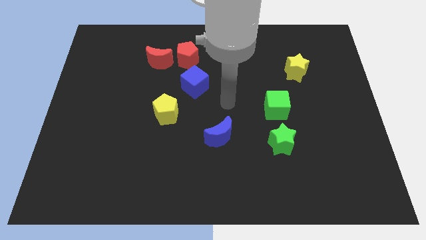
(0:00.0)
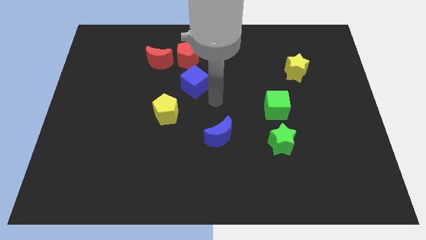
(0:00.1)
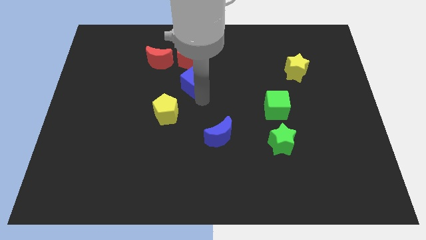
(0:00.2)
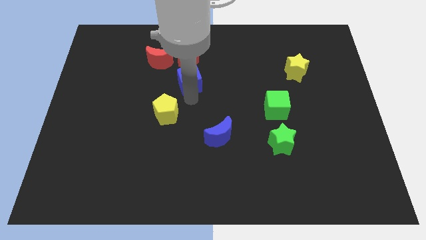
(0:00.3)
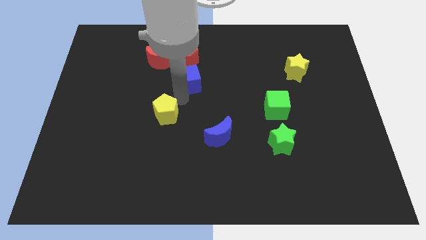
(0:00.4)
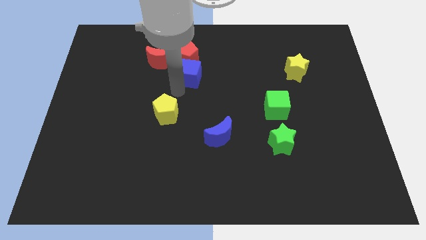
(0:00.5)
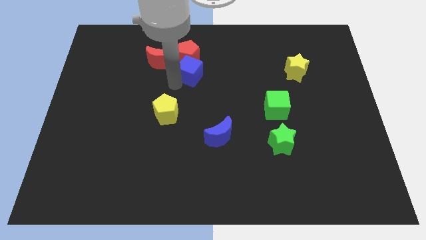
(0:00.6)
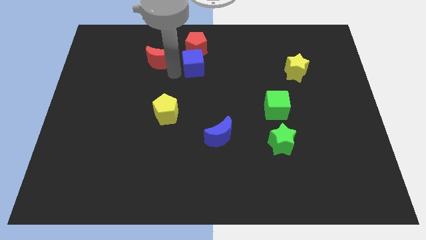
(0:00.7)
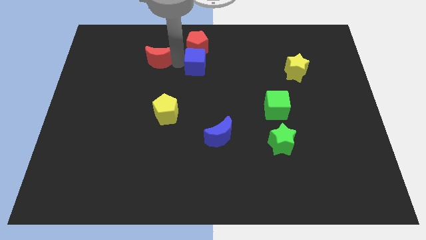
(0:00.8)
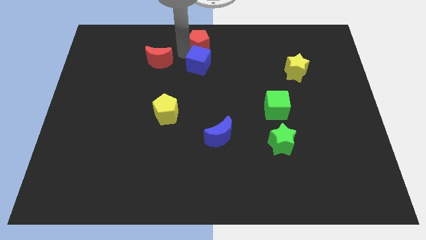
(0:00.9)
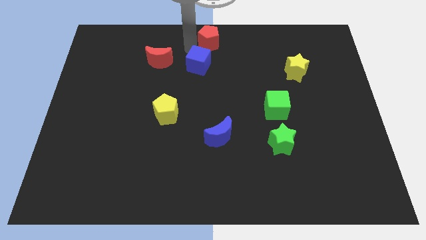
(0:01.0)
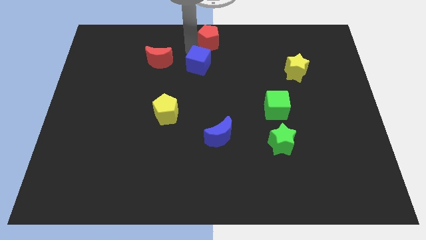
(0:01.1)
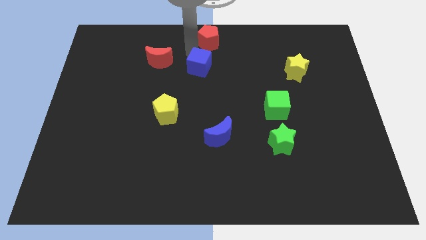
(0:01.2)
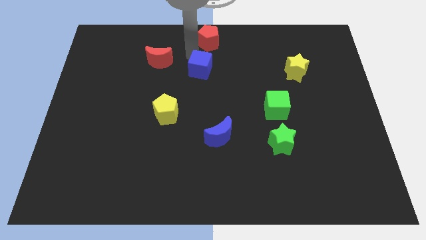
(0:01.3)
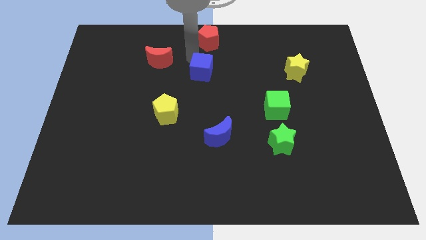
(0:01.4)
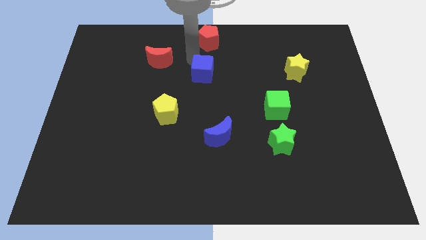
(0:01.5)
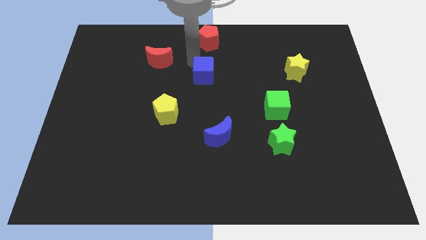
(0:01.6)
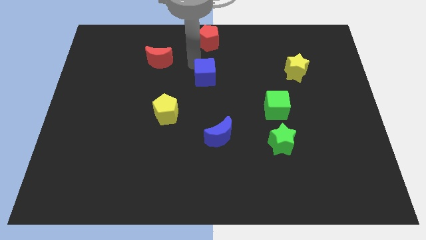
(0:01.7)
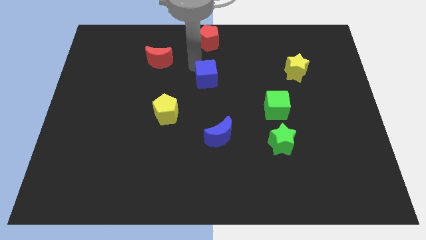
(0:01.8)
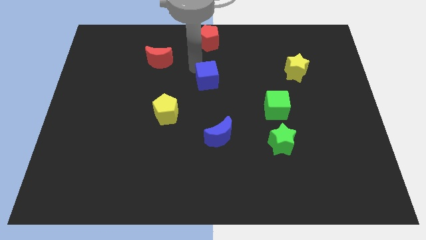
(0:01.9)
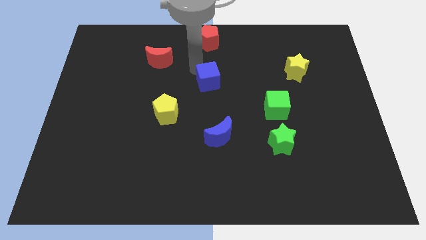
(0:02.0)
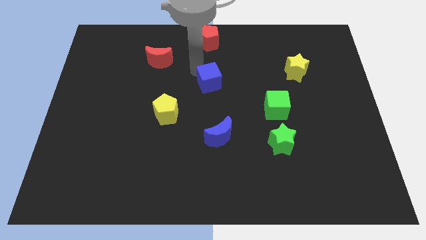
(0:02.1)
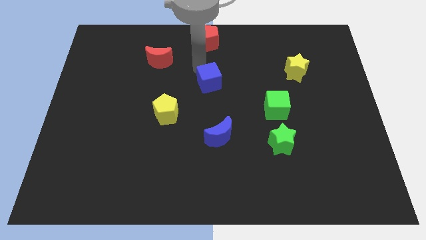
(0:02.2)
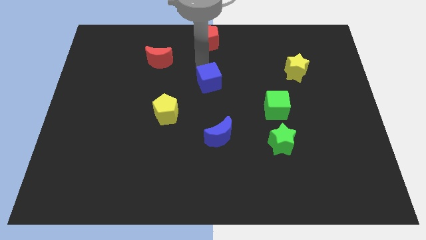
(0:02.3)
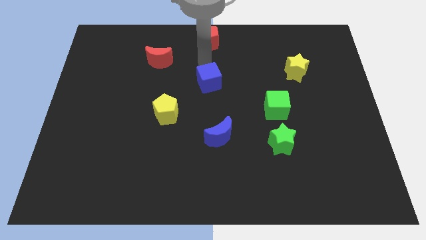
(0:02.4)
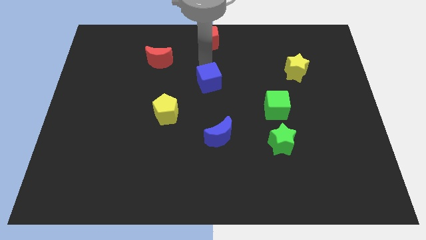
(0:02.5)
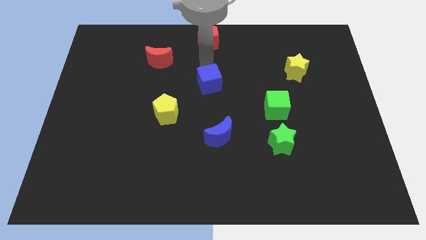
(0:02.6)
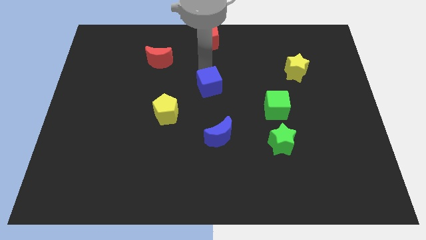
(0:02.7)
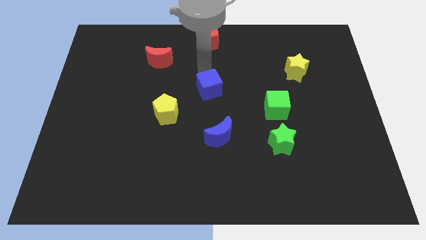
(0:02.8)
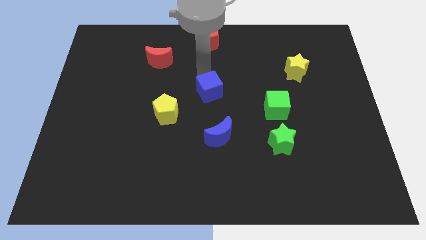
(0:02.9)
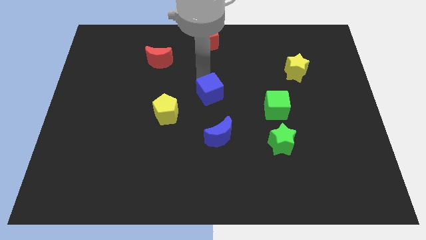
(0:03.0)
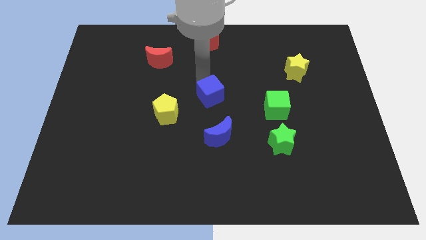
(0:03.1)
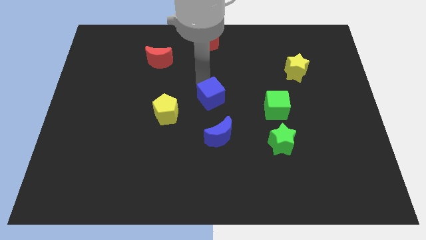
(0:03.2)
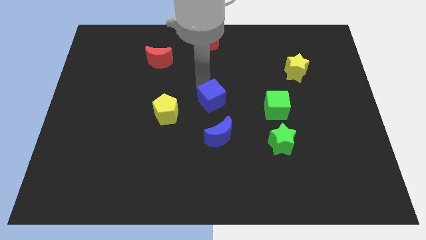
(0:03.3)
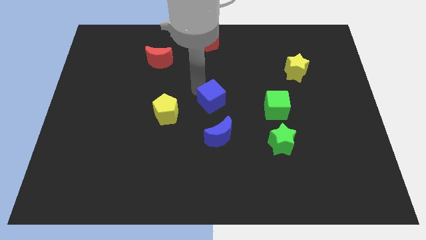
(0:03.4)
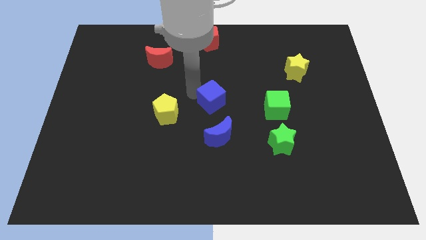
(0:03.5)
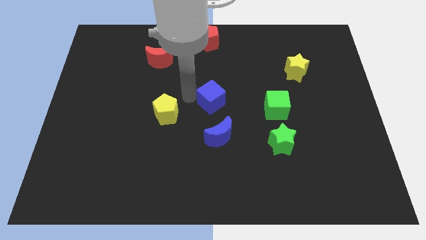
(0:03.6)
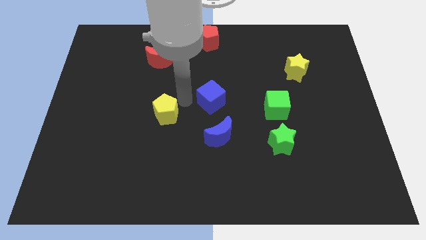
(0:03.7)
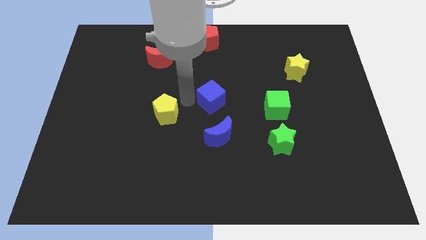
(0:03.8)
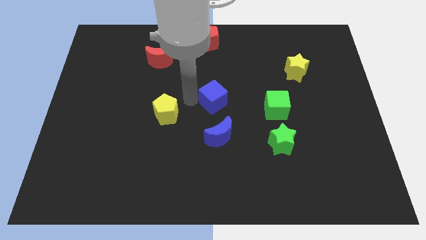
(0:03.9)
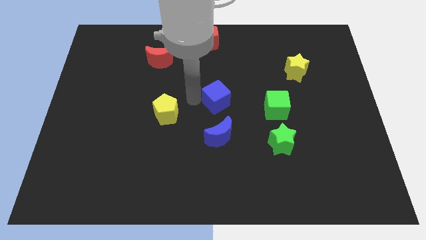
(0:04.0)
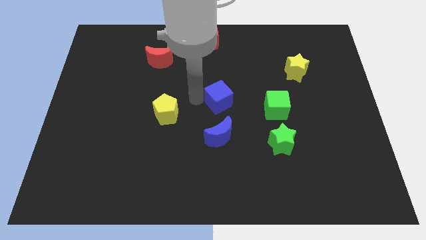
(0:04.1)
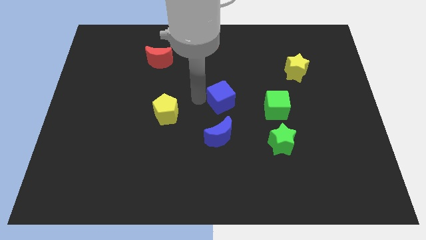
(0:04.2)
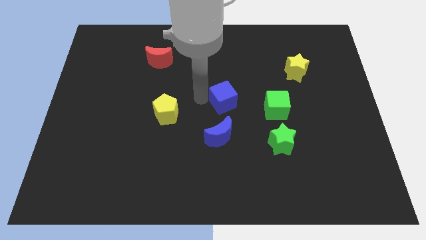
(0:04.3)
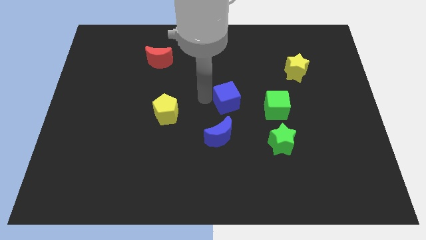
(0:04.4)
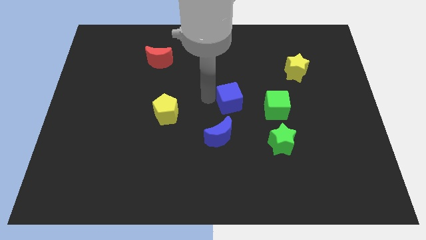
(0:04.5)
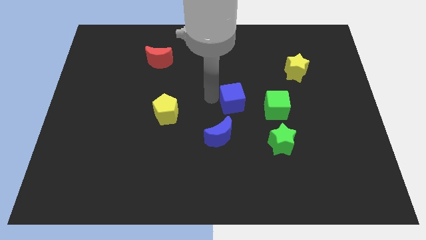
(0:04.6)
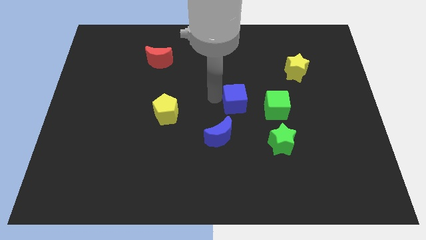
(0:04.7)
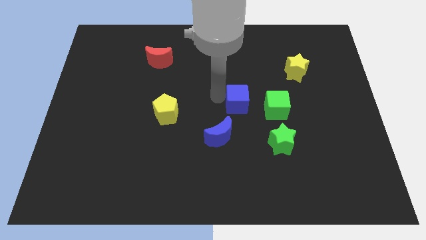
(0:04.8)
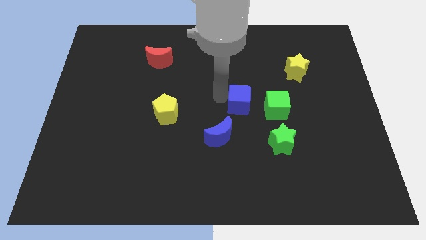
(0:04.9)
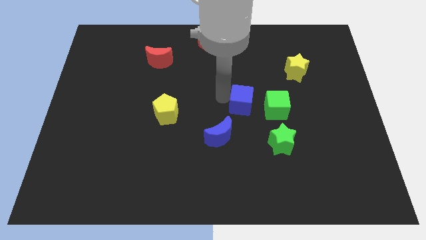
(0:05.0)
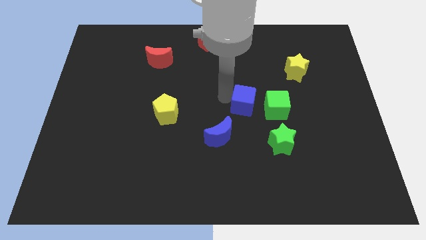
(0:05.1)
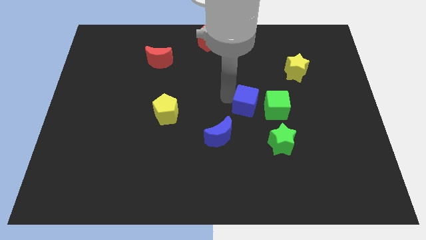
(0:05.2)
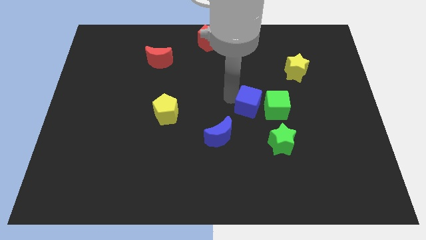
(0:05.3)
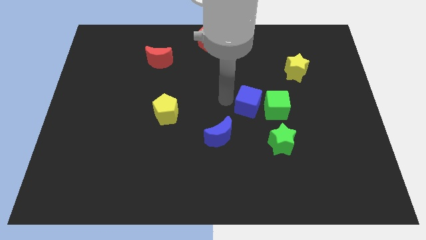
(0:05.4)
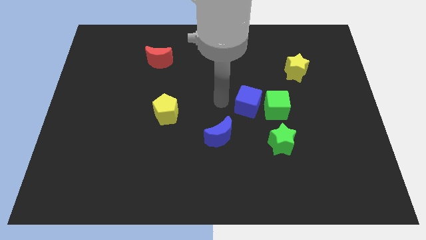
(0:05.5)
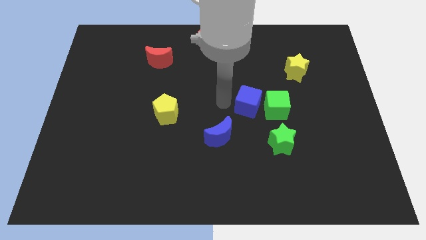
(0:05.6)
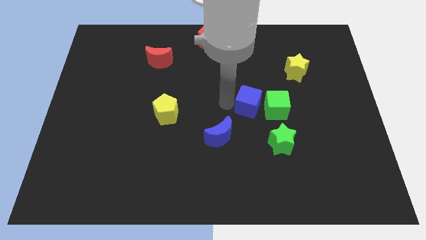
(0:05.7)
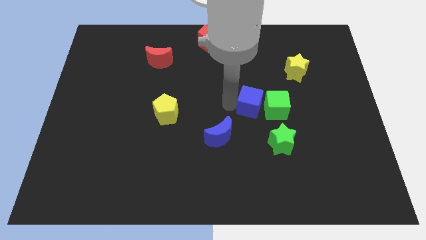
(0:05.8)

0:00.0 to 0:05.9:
put the blue cube close to the green cube

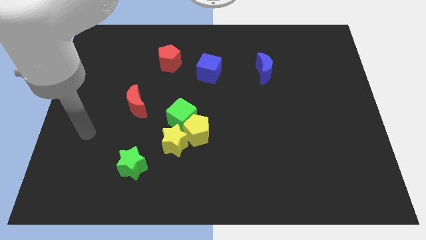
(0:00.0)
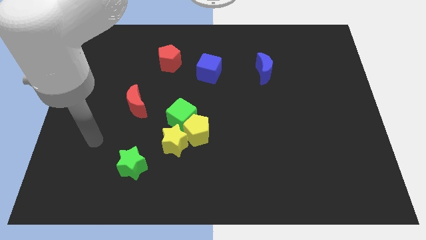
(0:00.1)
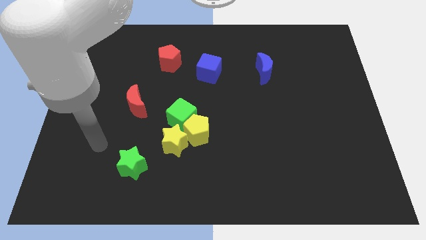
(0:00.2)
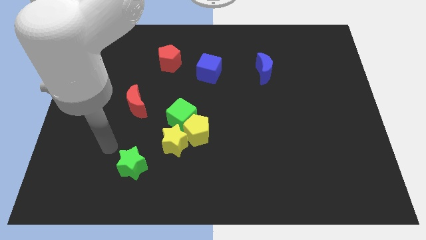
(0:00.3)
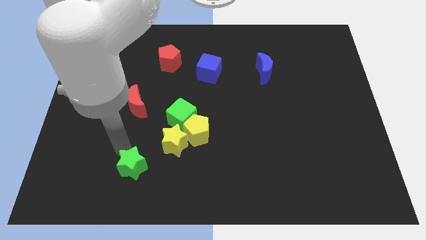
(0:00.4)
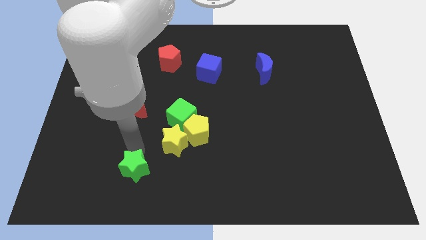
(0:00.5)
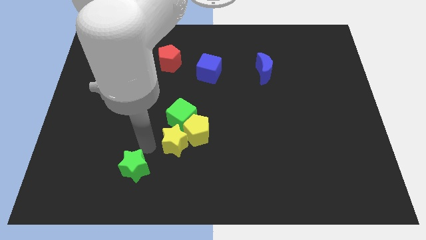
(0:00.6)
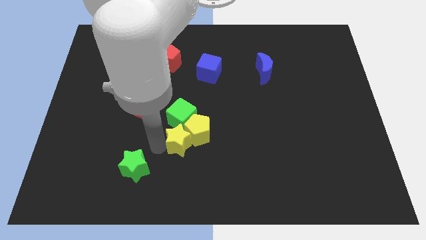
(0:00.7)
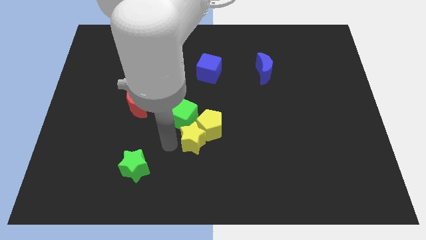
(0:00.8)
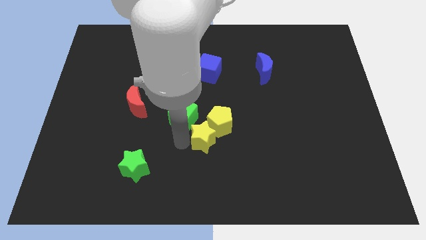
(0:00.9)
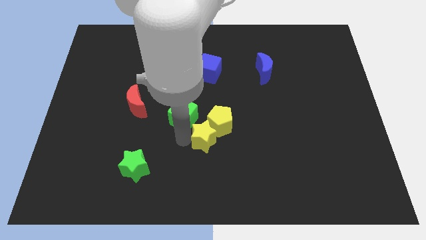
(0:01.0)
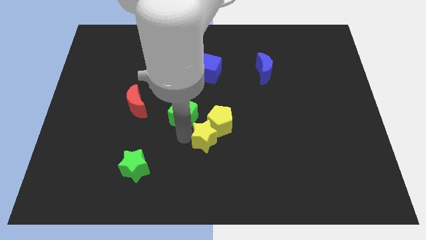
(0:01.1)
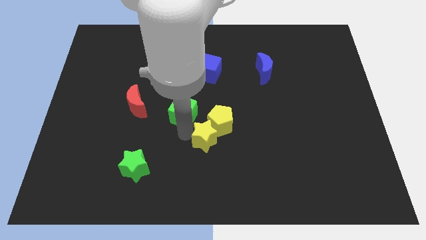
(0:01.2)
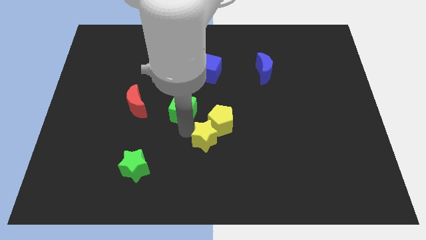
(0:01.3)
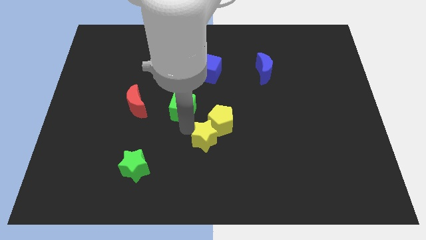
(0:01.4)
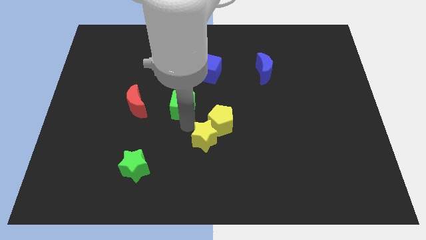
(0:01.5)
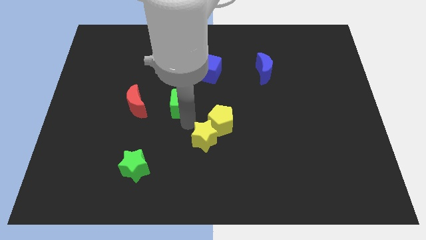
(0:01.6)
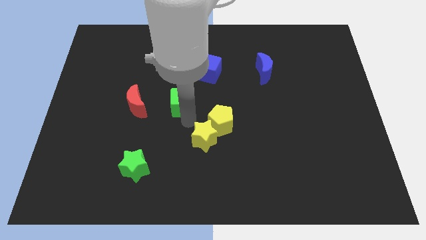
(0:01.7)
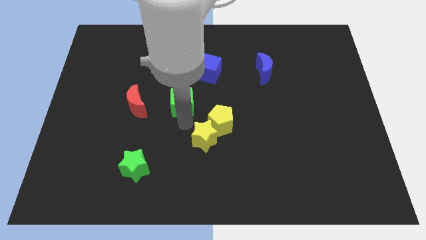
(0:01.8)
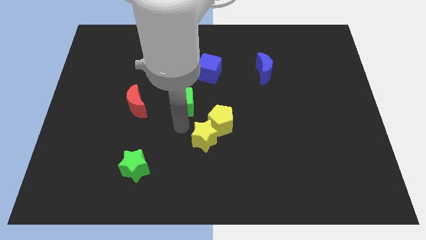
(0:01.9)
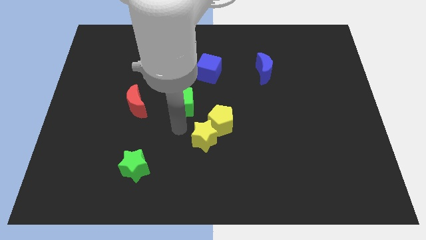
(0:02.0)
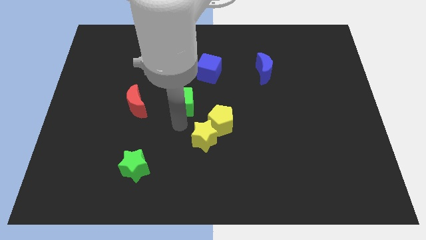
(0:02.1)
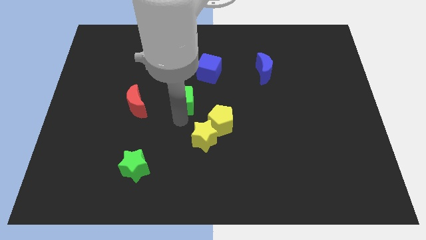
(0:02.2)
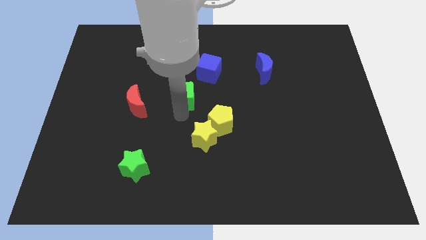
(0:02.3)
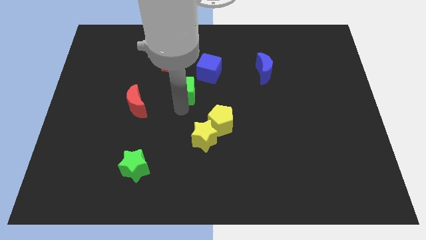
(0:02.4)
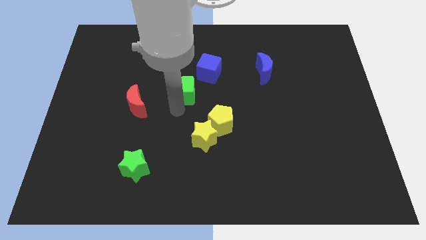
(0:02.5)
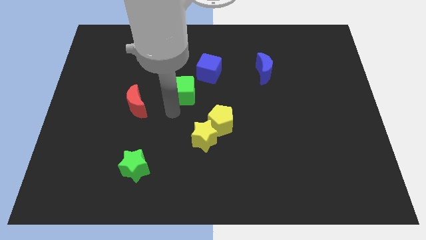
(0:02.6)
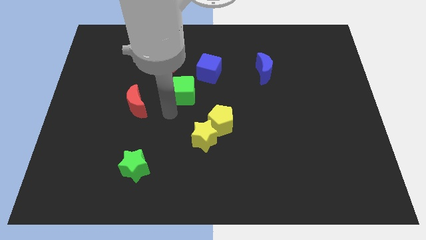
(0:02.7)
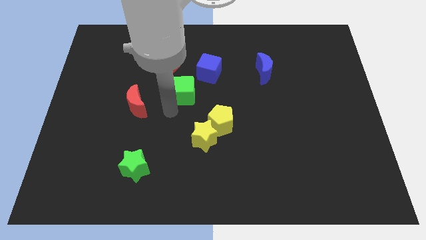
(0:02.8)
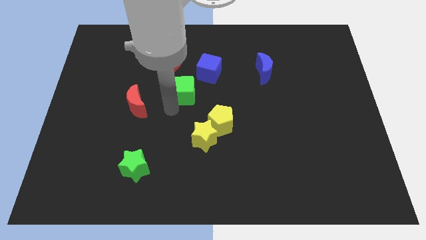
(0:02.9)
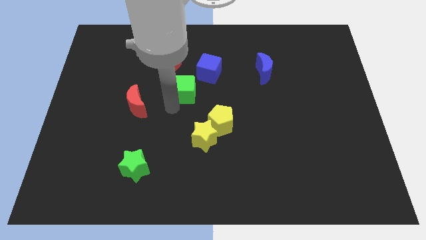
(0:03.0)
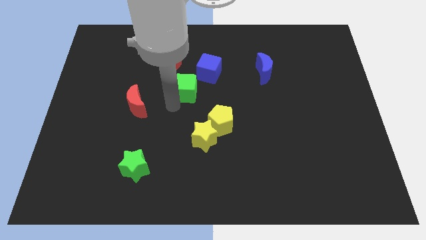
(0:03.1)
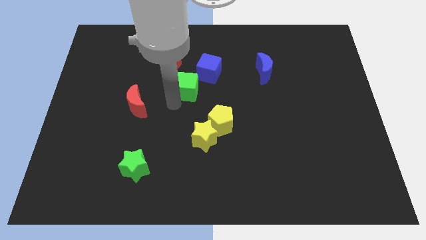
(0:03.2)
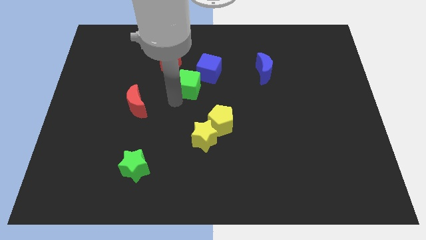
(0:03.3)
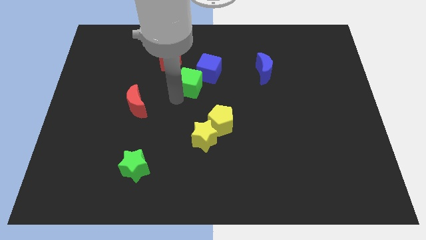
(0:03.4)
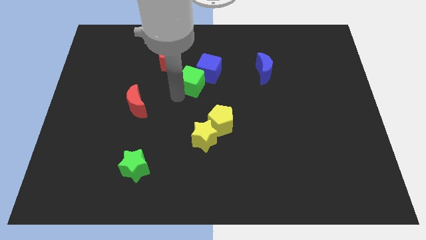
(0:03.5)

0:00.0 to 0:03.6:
move the green cube to the blue cube
